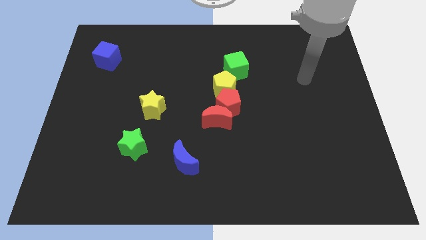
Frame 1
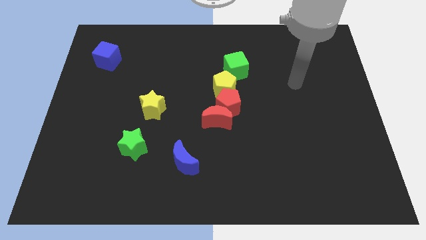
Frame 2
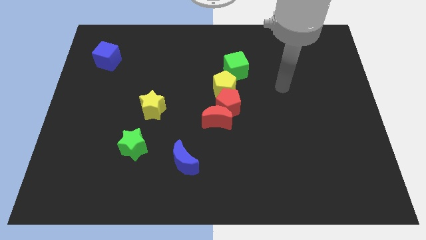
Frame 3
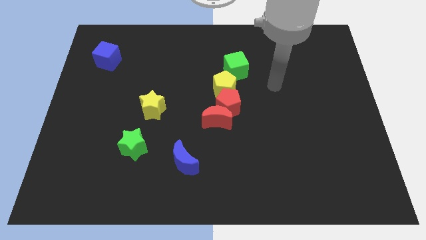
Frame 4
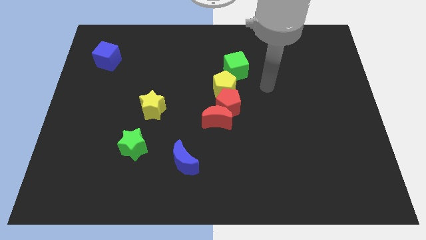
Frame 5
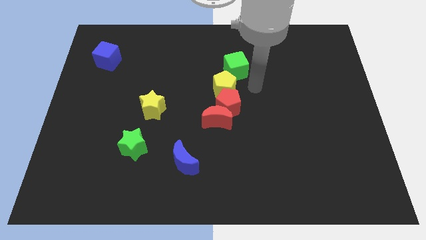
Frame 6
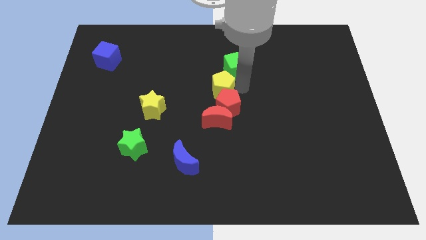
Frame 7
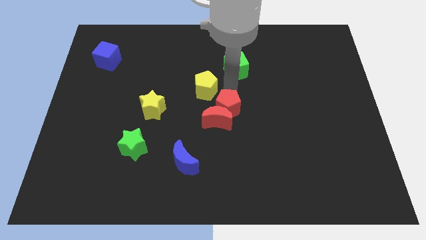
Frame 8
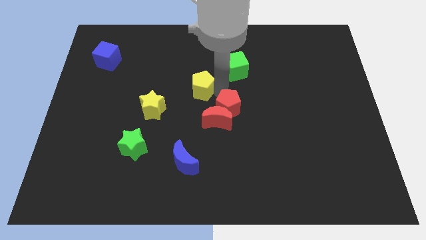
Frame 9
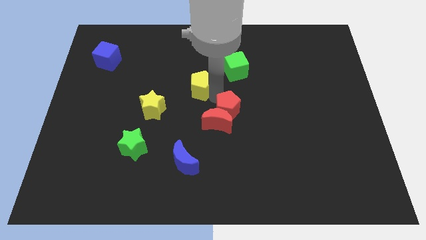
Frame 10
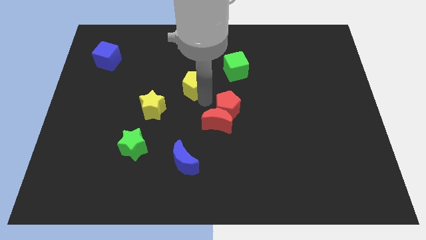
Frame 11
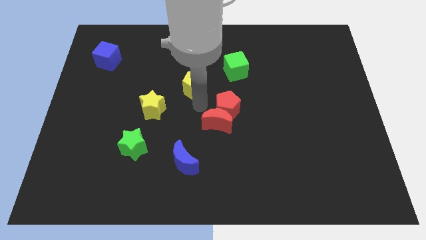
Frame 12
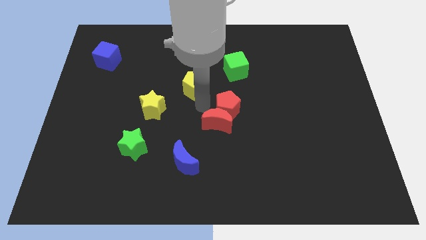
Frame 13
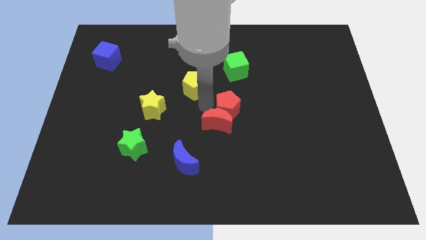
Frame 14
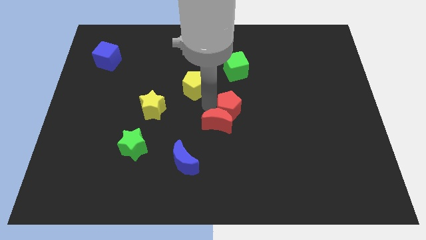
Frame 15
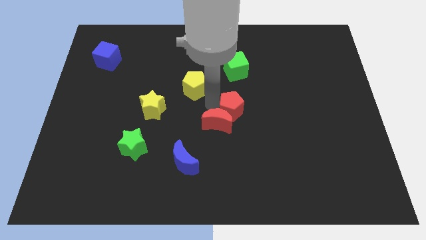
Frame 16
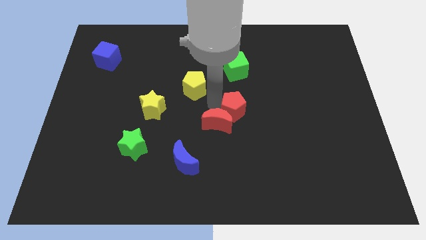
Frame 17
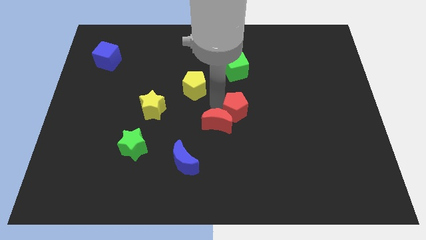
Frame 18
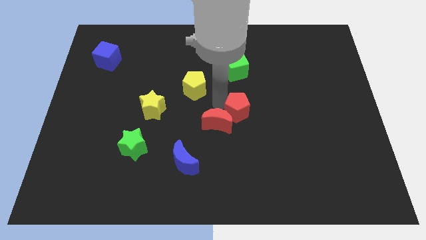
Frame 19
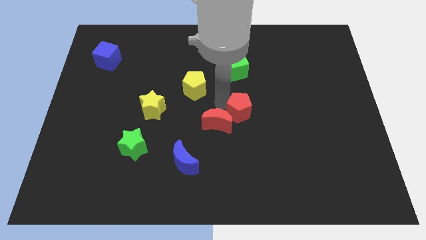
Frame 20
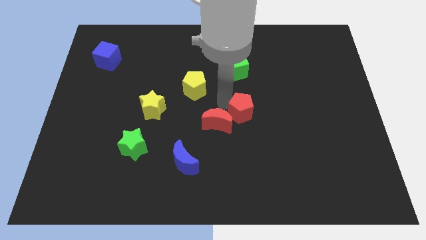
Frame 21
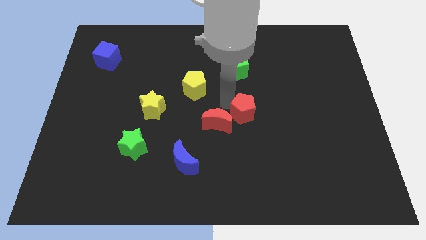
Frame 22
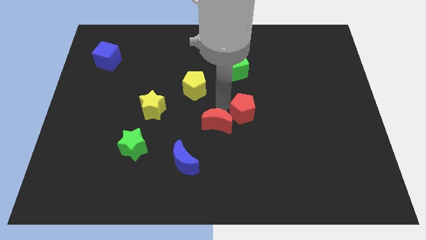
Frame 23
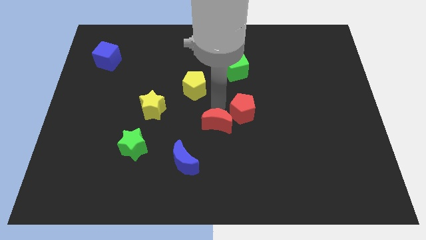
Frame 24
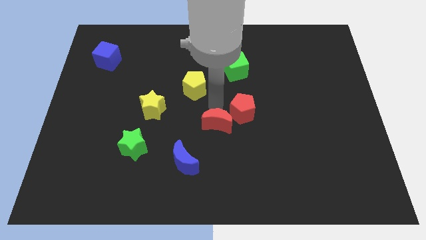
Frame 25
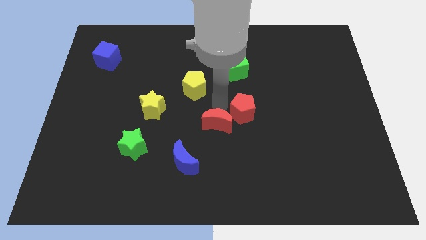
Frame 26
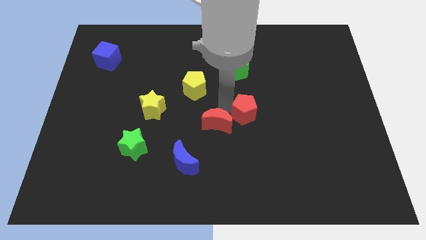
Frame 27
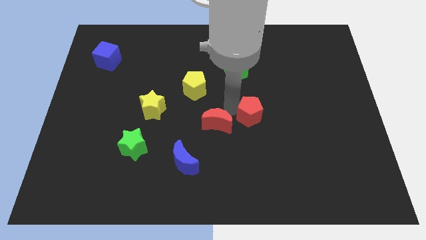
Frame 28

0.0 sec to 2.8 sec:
pull the red pentagon apart from the red moon and yellow pentagon

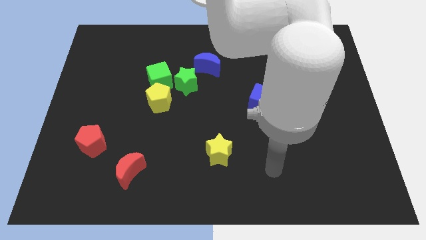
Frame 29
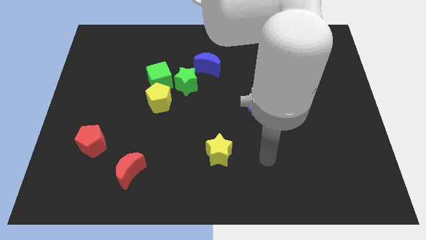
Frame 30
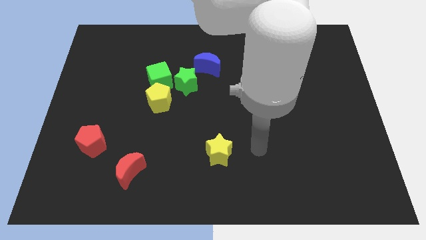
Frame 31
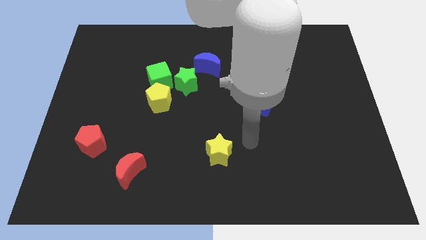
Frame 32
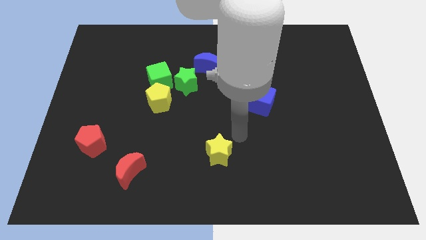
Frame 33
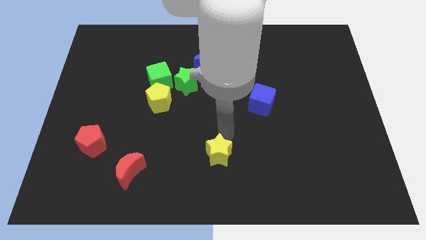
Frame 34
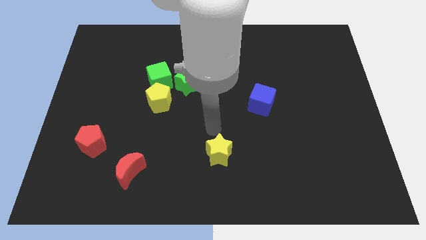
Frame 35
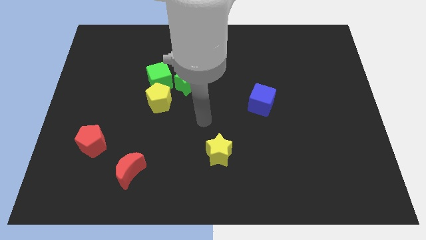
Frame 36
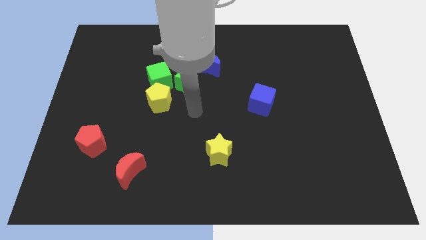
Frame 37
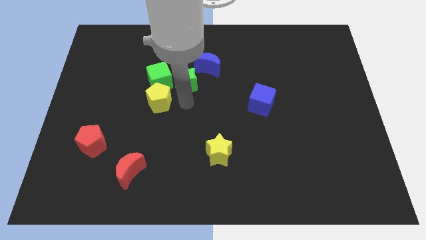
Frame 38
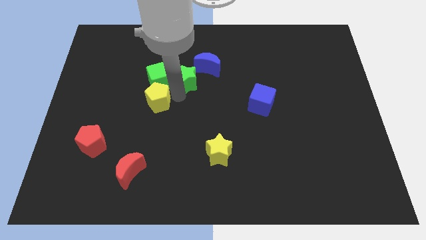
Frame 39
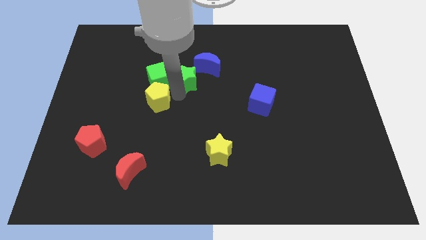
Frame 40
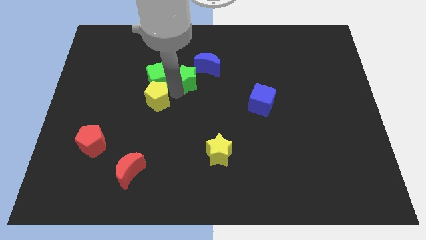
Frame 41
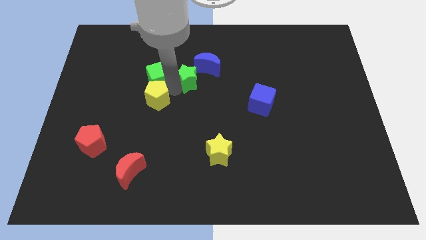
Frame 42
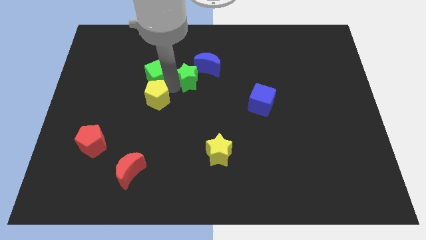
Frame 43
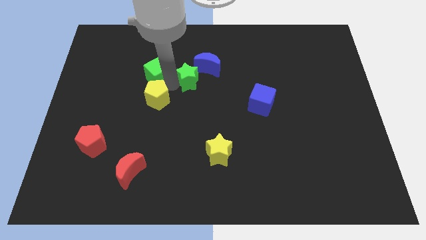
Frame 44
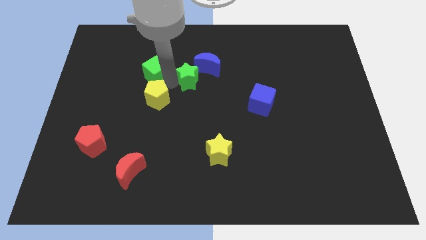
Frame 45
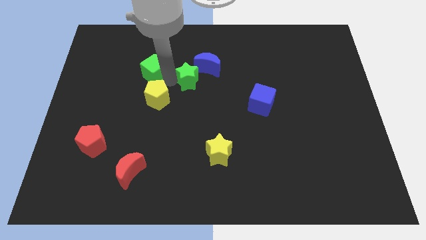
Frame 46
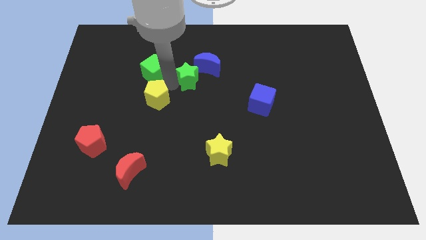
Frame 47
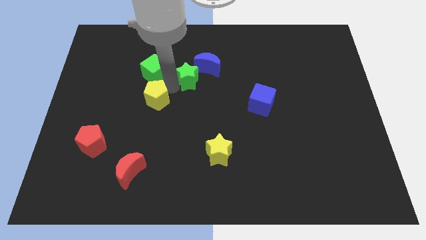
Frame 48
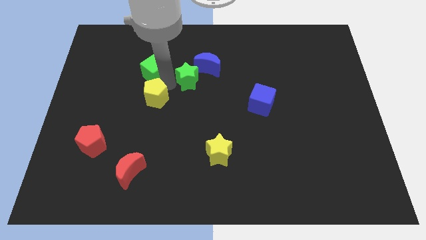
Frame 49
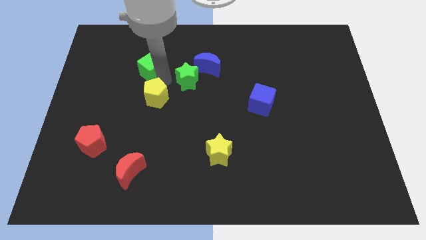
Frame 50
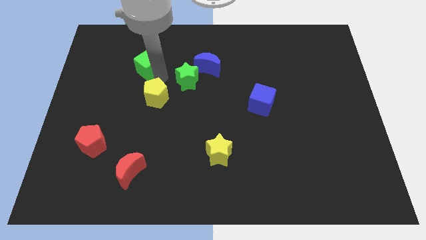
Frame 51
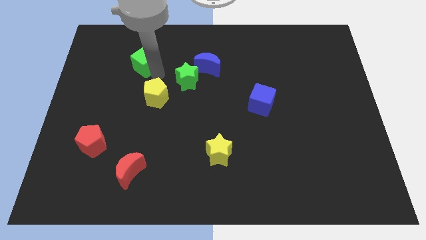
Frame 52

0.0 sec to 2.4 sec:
separate the green cube from the yellow pentagon and green star

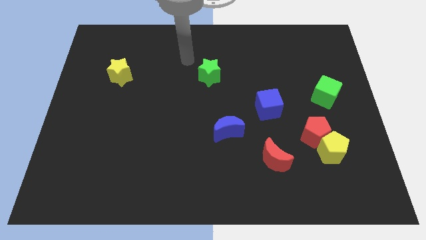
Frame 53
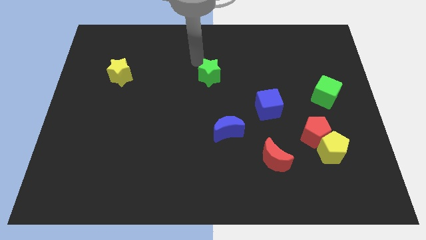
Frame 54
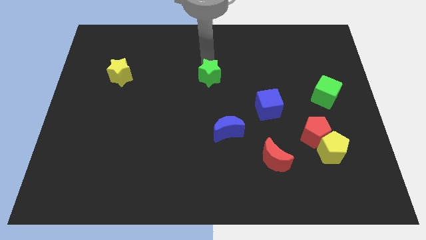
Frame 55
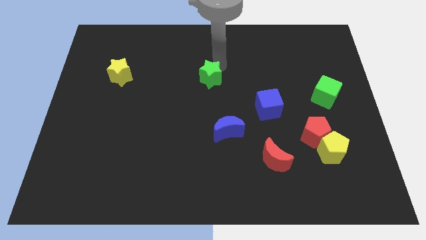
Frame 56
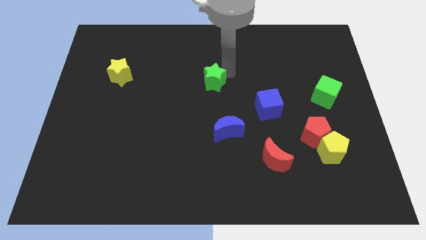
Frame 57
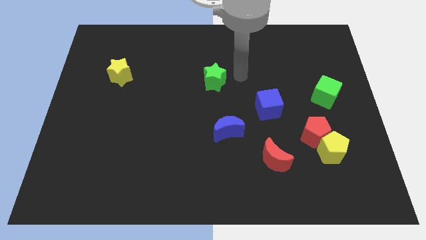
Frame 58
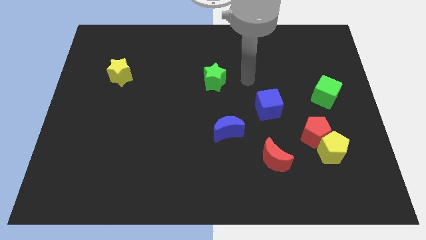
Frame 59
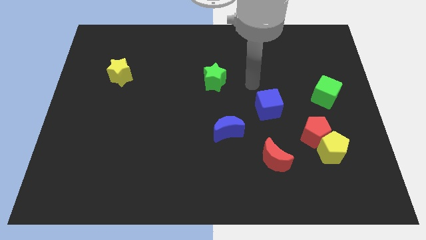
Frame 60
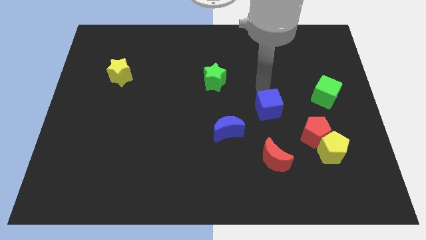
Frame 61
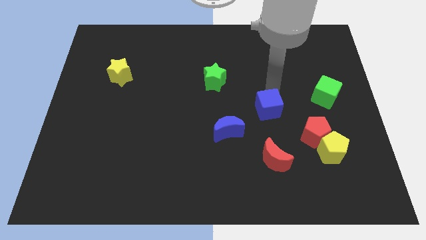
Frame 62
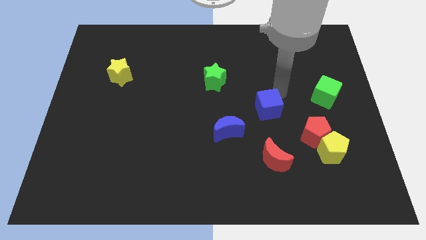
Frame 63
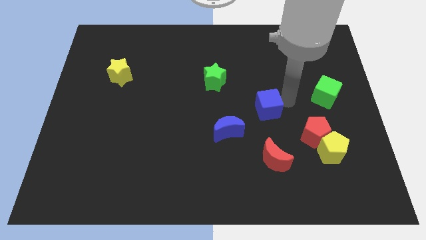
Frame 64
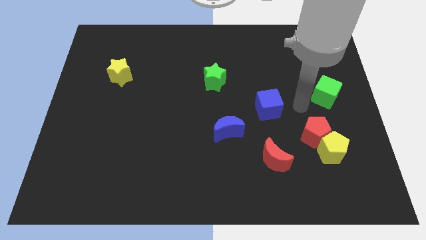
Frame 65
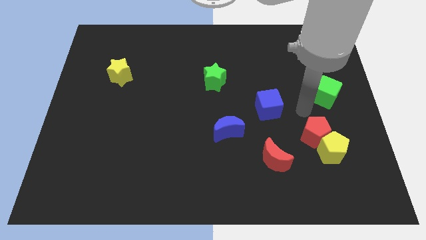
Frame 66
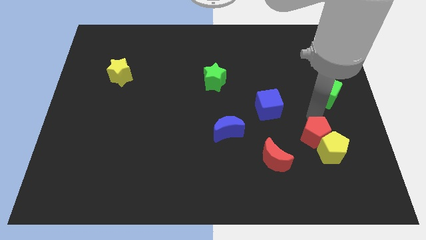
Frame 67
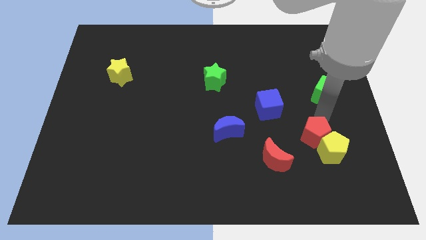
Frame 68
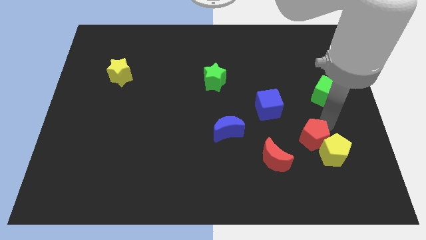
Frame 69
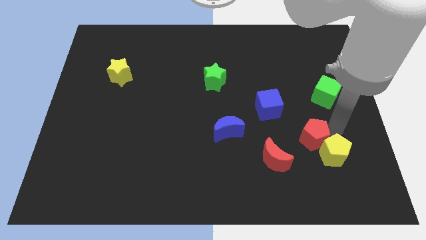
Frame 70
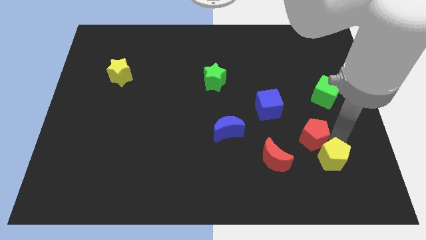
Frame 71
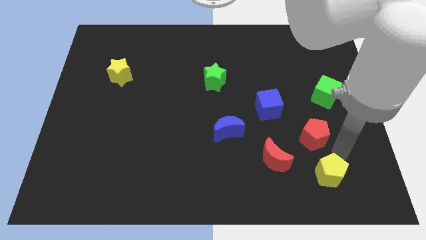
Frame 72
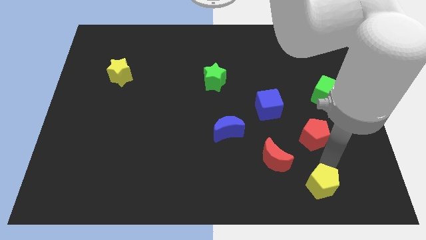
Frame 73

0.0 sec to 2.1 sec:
separate the red pentagon from the yellow pentagon

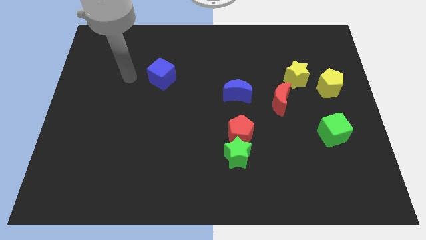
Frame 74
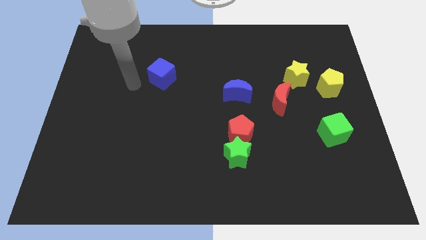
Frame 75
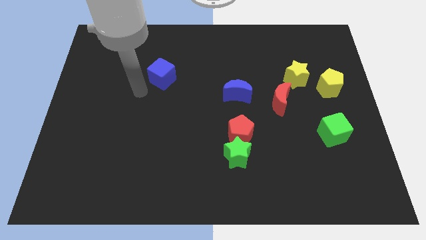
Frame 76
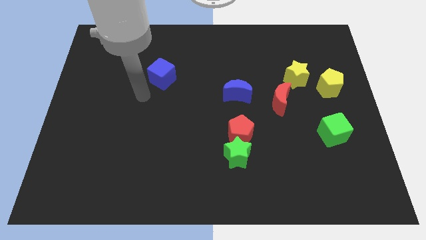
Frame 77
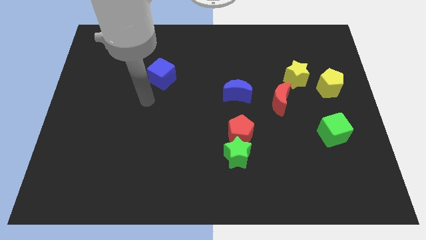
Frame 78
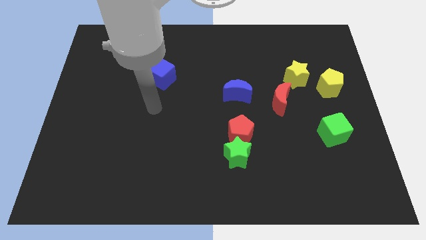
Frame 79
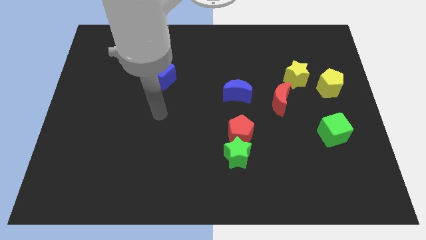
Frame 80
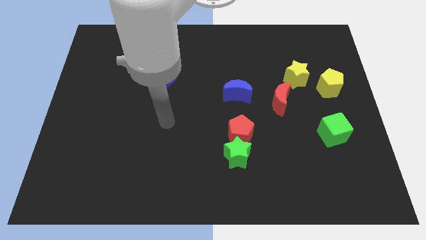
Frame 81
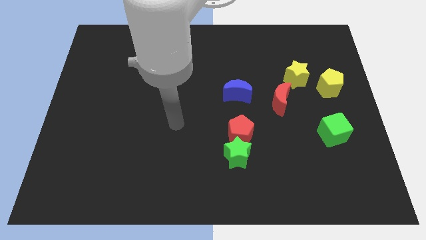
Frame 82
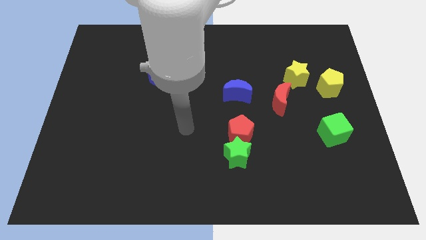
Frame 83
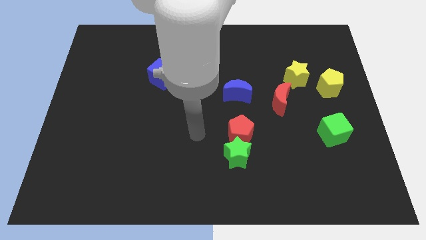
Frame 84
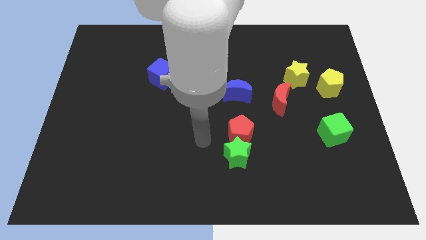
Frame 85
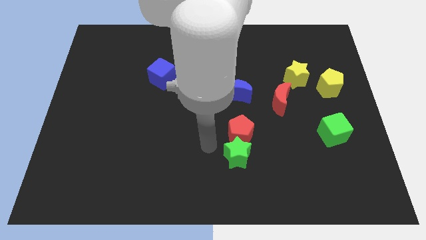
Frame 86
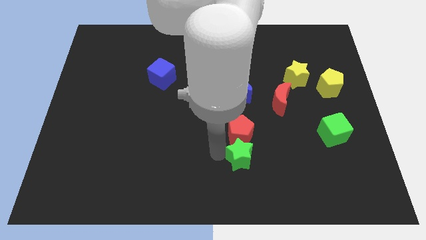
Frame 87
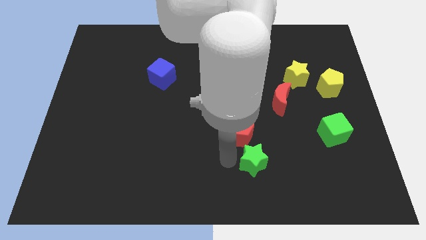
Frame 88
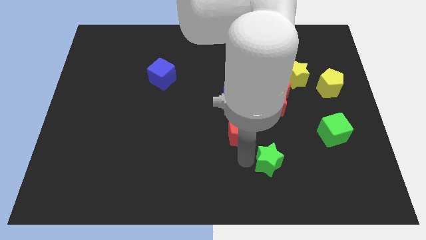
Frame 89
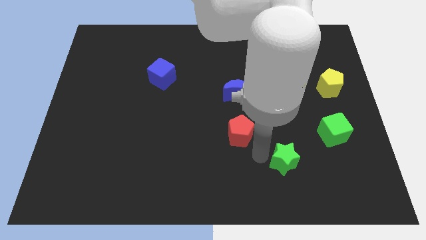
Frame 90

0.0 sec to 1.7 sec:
pull the red pentagon apart from the green star

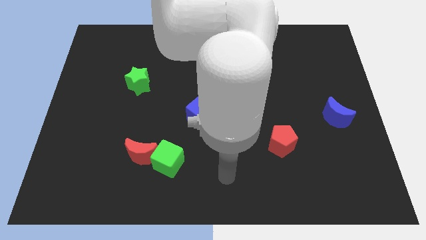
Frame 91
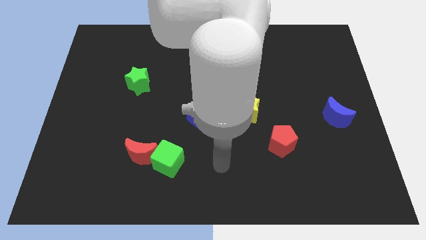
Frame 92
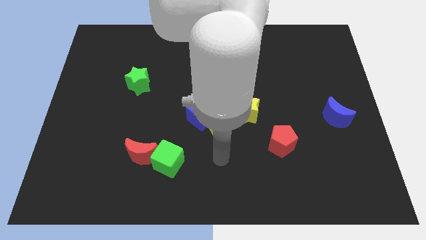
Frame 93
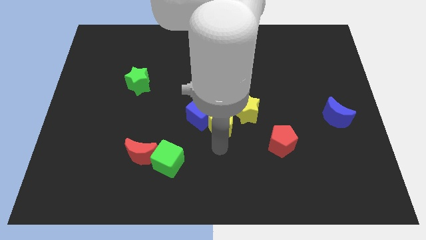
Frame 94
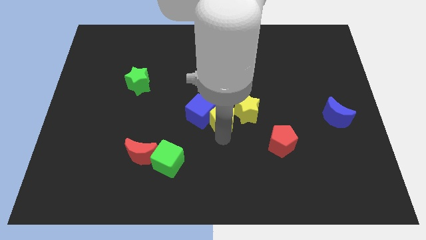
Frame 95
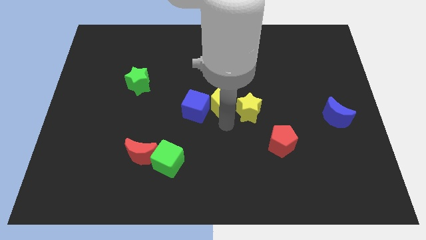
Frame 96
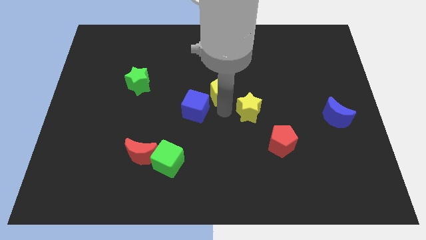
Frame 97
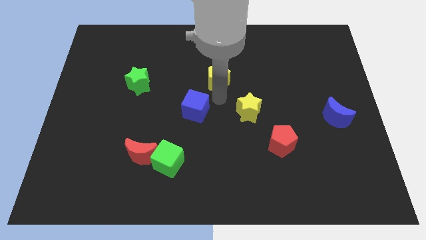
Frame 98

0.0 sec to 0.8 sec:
pull the blue cube apart from the yellow pentagon
